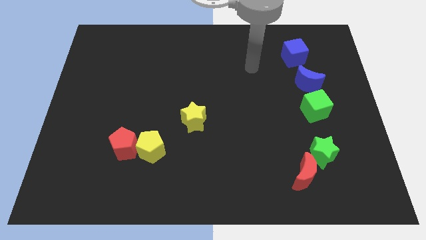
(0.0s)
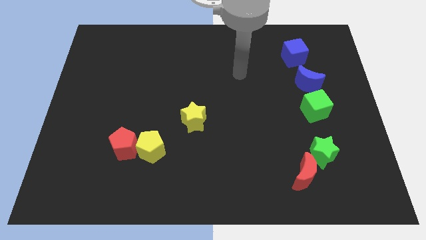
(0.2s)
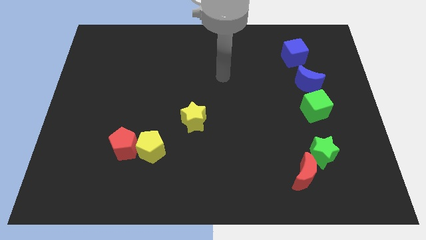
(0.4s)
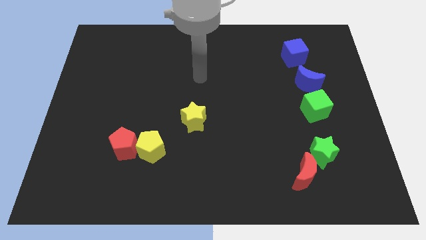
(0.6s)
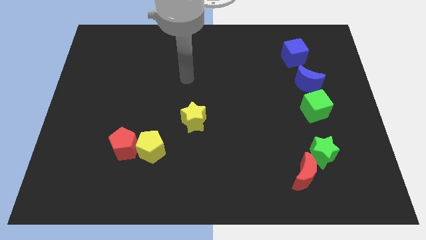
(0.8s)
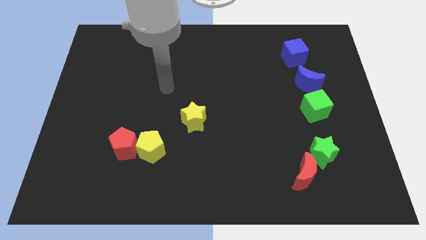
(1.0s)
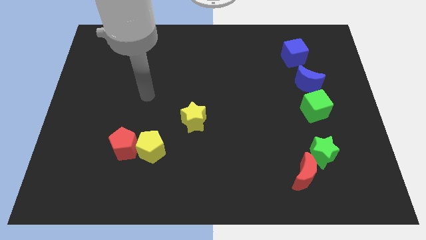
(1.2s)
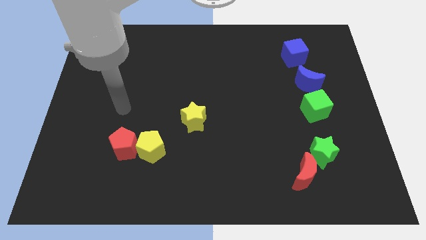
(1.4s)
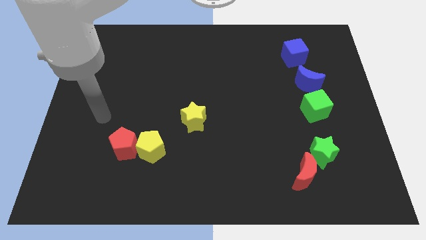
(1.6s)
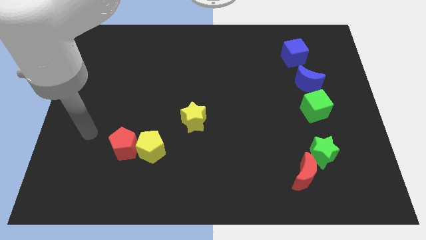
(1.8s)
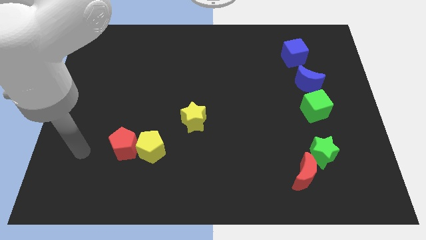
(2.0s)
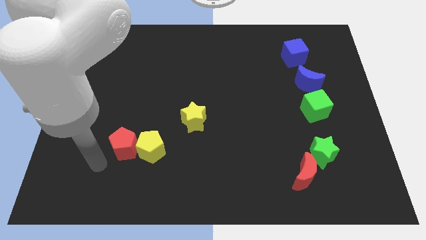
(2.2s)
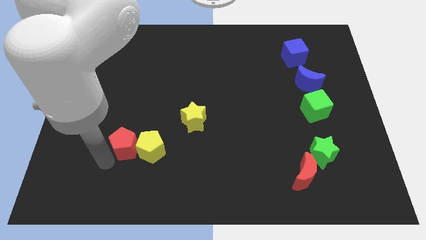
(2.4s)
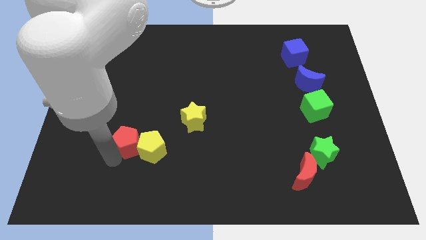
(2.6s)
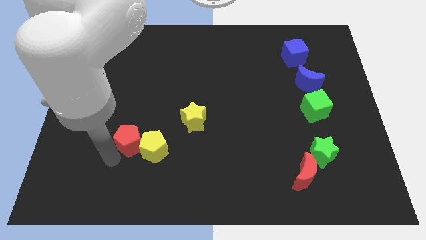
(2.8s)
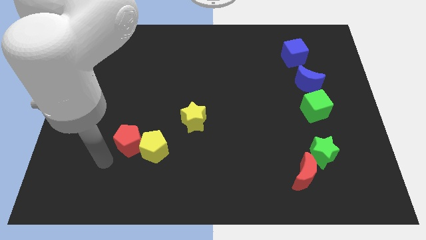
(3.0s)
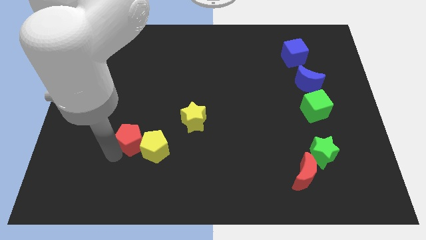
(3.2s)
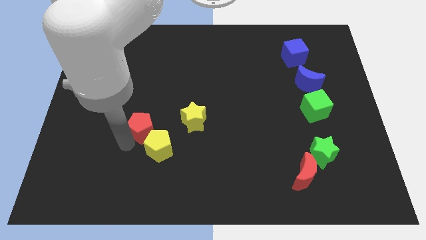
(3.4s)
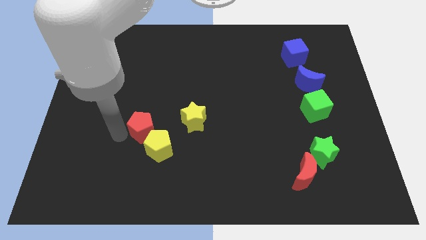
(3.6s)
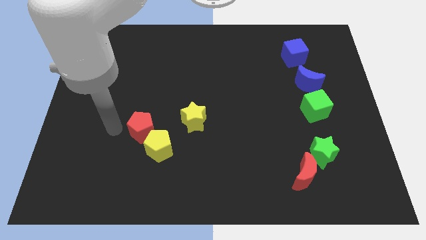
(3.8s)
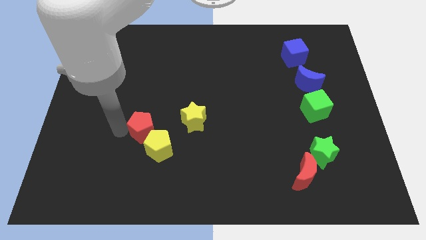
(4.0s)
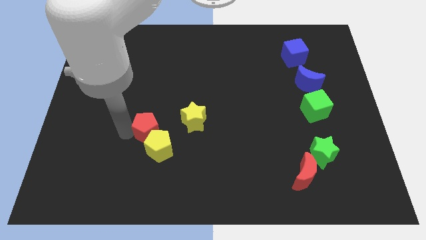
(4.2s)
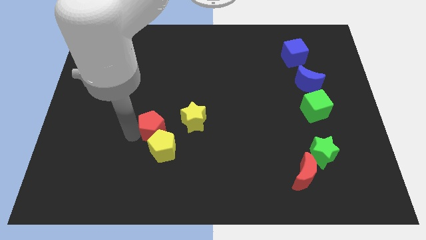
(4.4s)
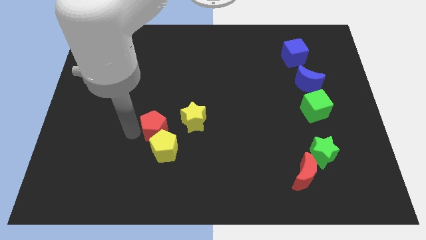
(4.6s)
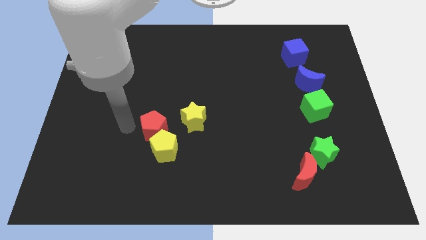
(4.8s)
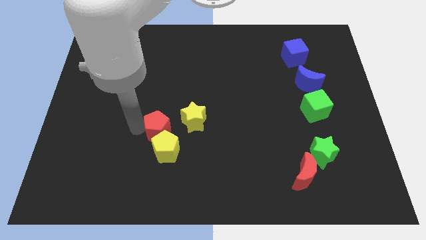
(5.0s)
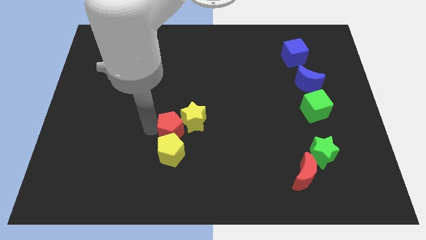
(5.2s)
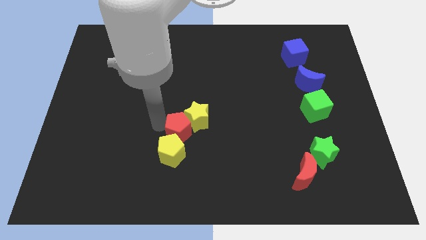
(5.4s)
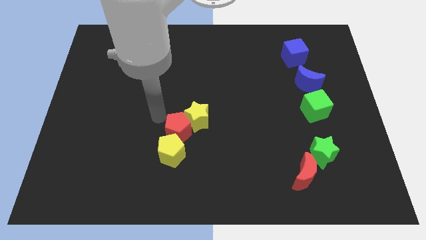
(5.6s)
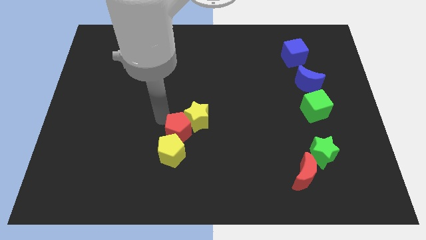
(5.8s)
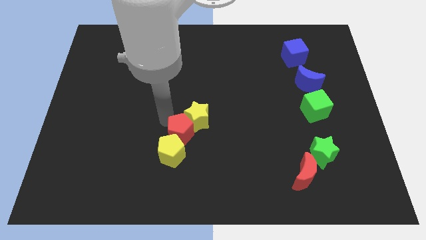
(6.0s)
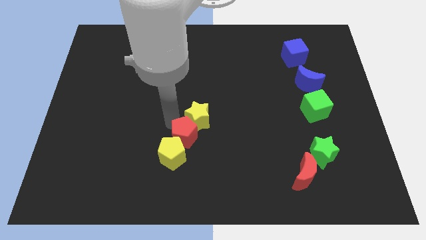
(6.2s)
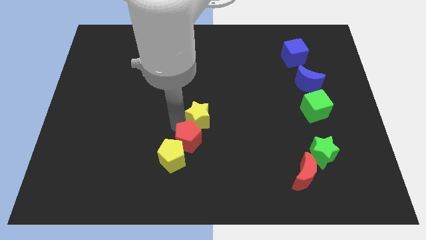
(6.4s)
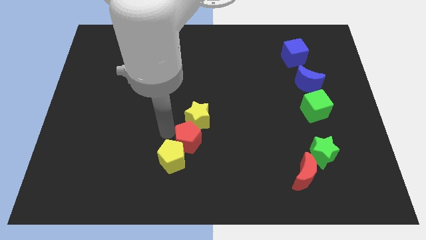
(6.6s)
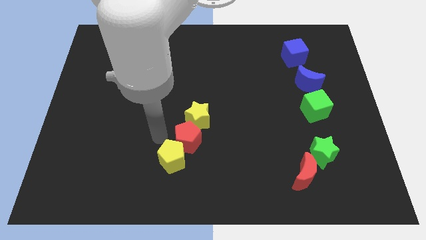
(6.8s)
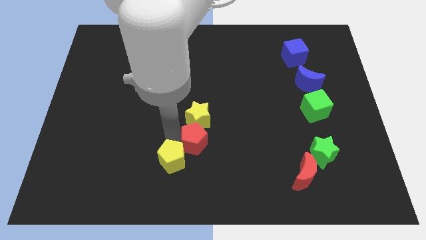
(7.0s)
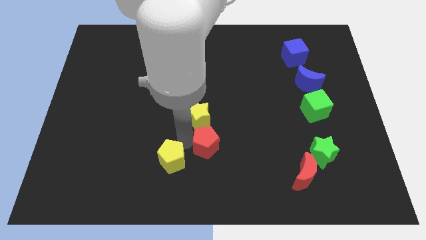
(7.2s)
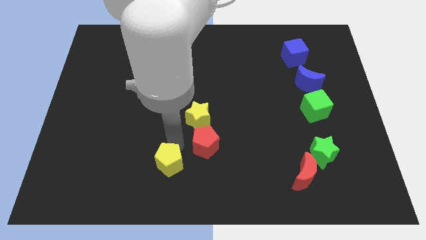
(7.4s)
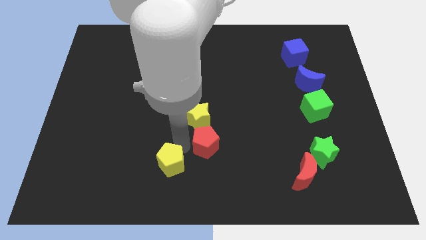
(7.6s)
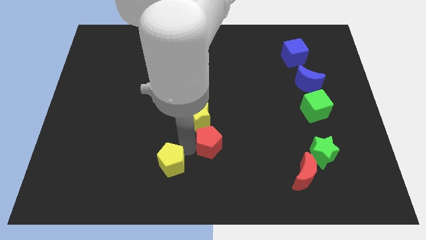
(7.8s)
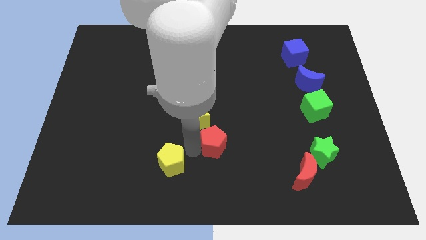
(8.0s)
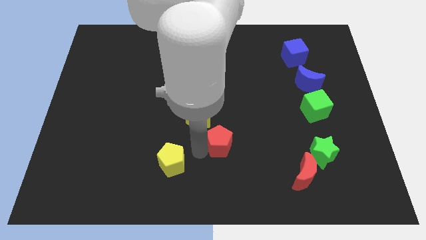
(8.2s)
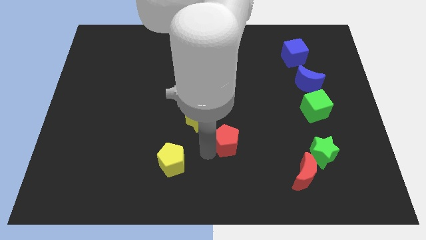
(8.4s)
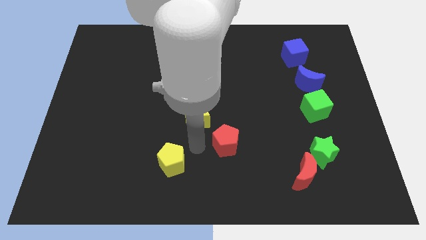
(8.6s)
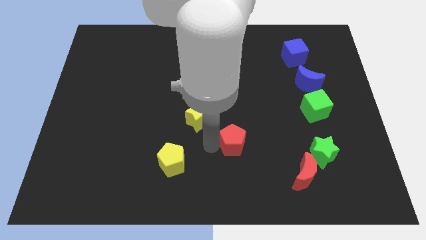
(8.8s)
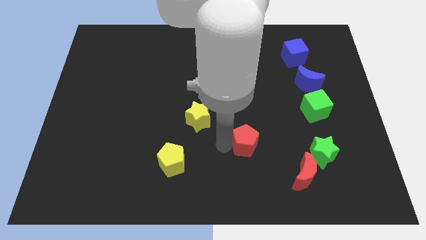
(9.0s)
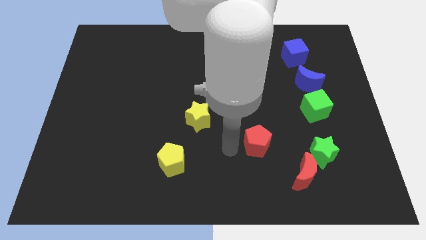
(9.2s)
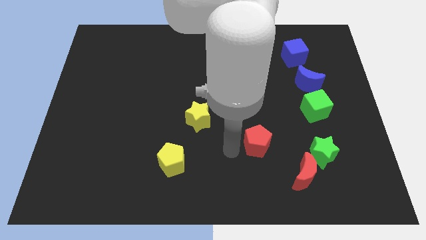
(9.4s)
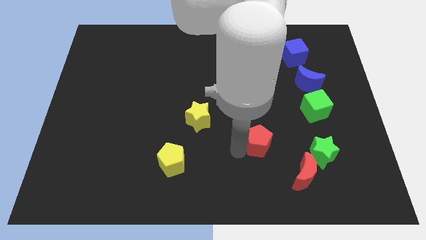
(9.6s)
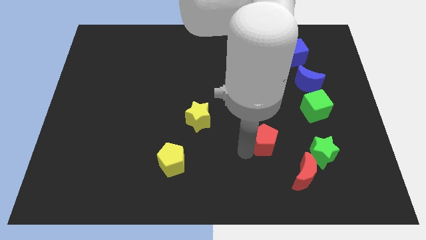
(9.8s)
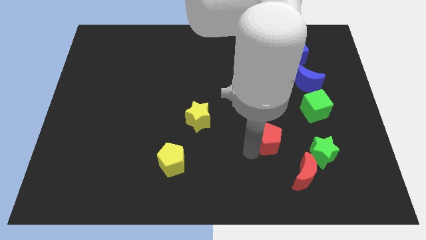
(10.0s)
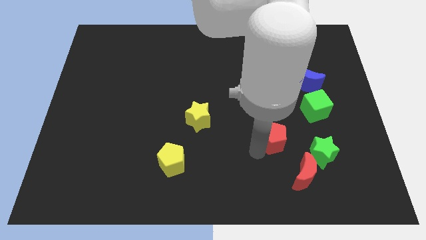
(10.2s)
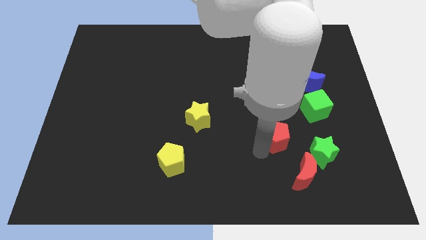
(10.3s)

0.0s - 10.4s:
slide the red pentagon to the top side of the red moon

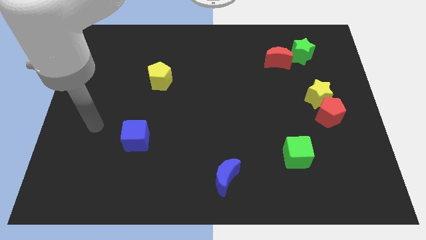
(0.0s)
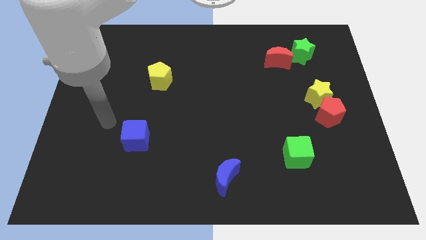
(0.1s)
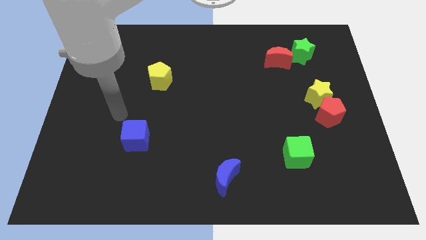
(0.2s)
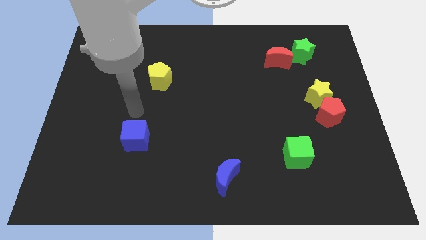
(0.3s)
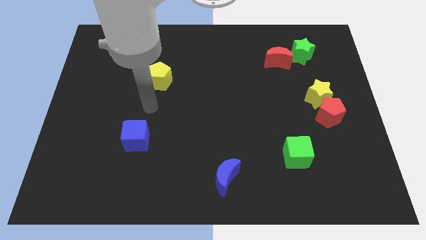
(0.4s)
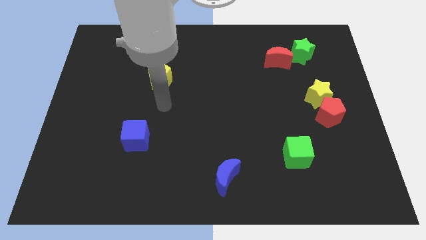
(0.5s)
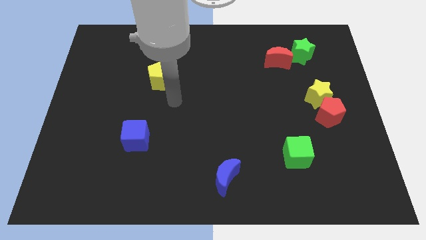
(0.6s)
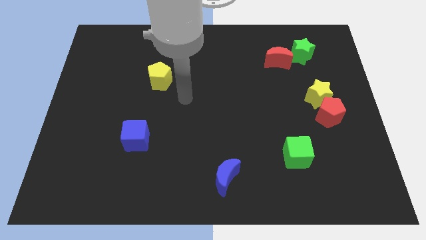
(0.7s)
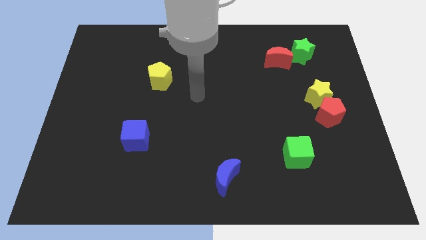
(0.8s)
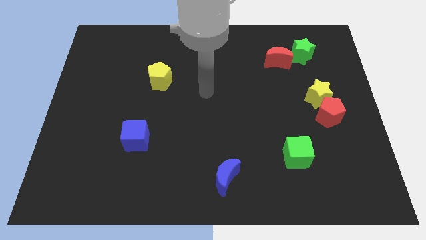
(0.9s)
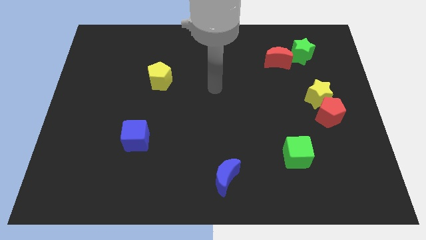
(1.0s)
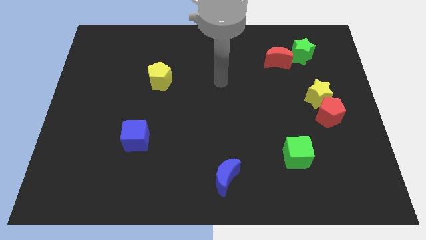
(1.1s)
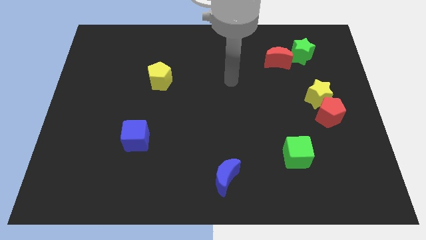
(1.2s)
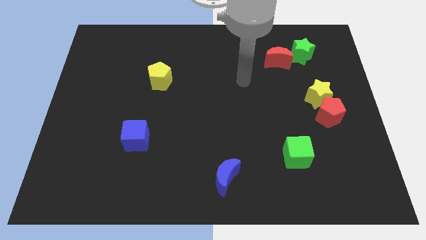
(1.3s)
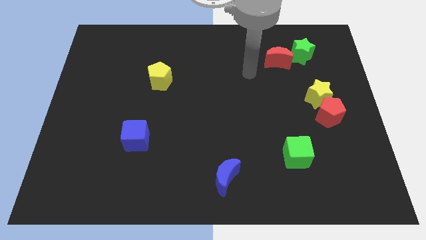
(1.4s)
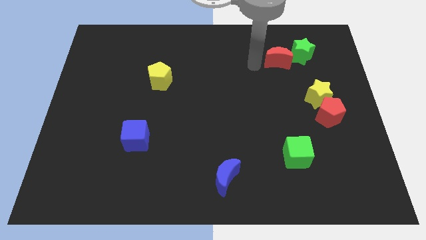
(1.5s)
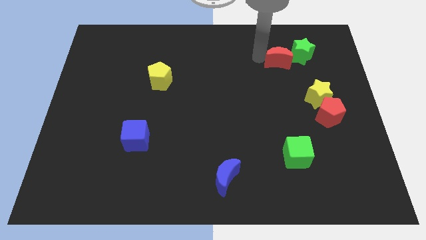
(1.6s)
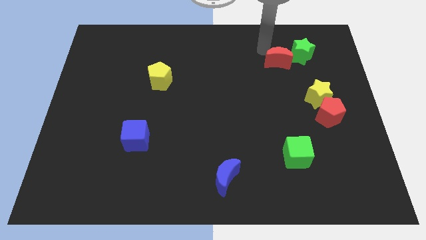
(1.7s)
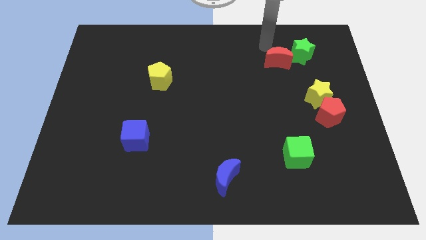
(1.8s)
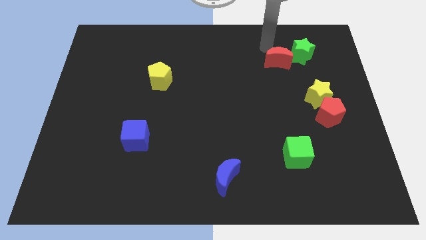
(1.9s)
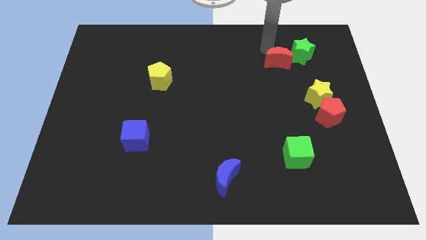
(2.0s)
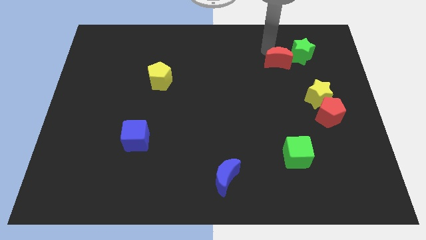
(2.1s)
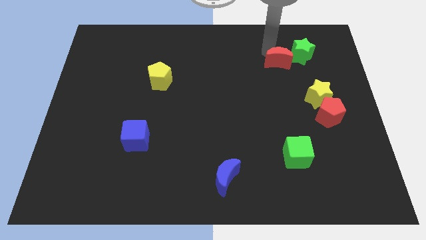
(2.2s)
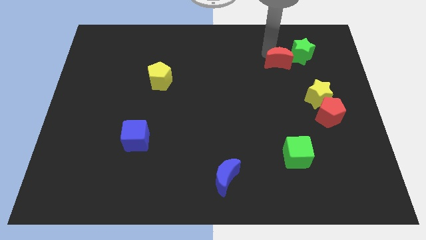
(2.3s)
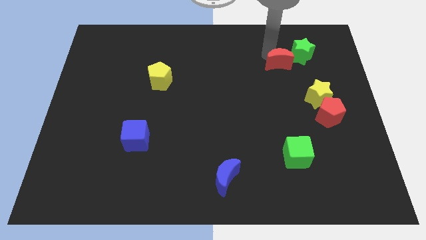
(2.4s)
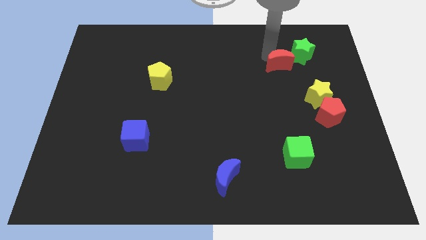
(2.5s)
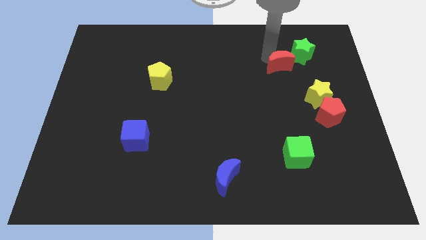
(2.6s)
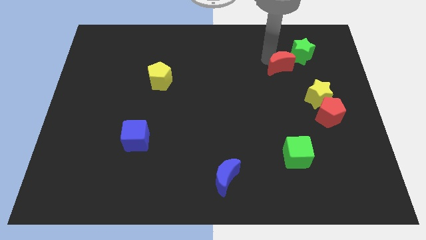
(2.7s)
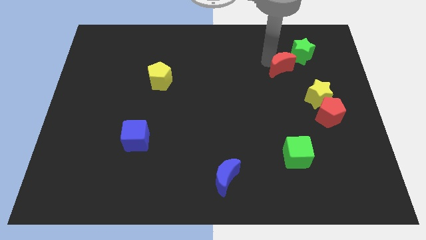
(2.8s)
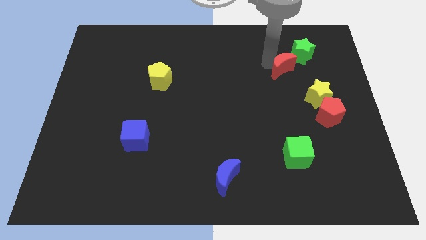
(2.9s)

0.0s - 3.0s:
put the red moon diagonally up and to the left of the yellow star
